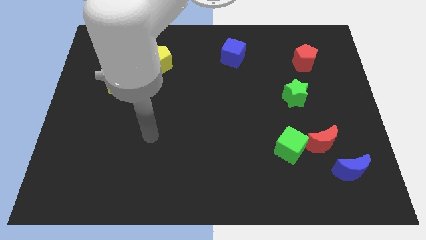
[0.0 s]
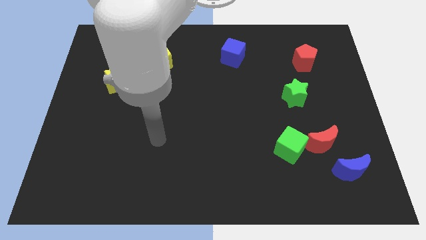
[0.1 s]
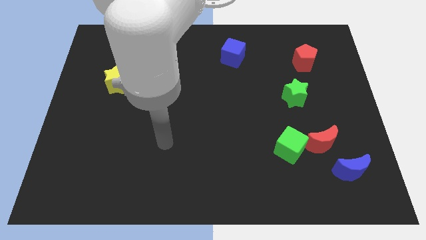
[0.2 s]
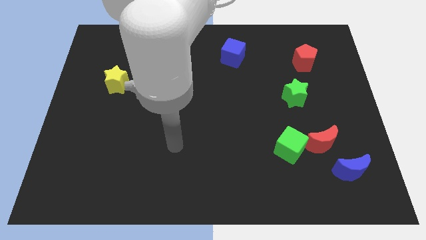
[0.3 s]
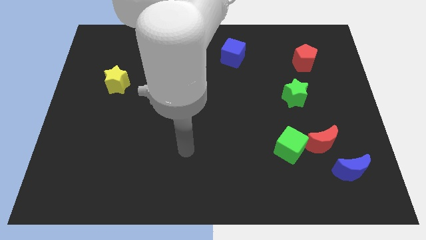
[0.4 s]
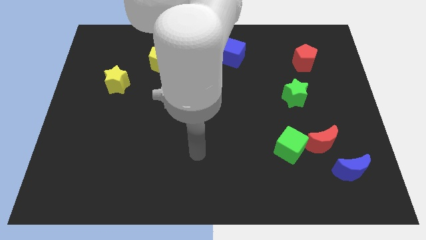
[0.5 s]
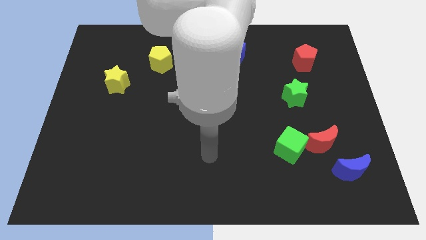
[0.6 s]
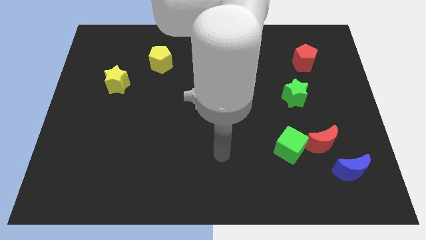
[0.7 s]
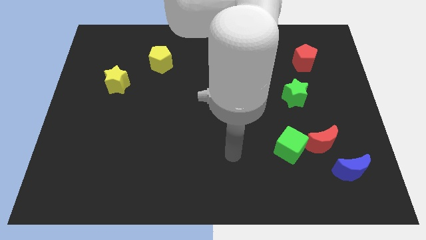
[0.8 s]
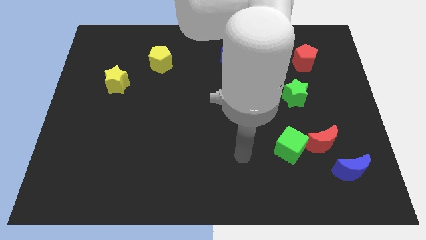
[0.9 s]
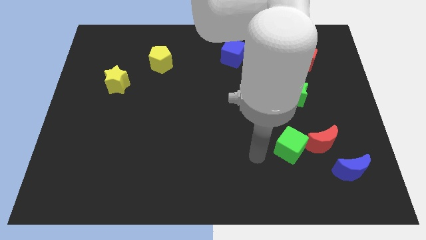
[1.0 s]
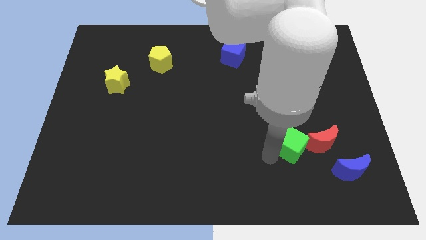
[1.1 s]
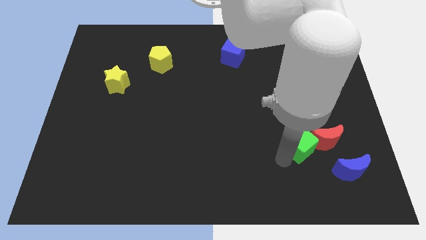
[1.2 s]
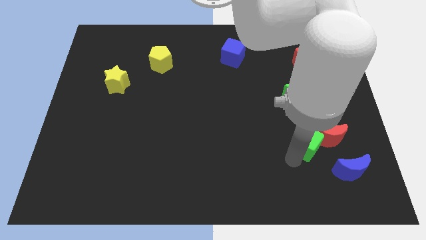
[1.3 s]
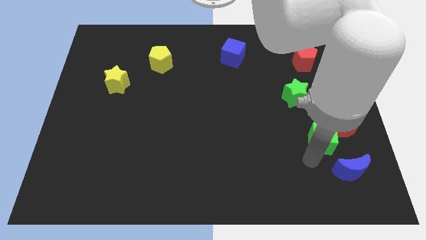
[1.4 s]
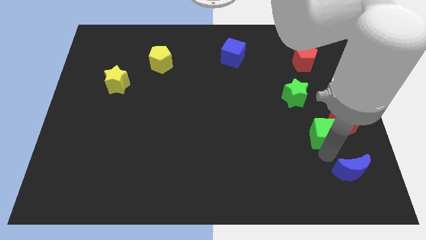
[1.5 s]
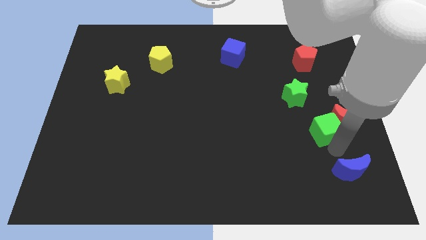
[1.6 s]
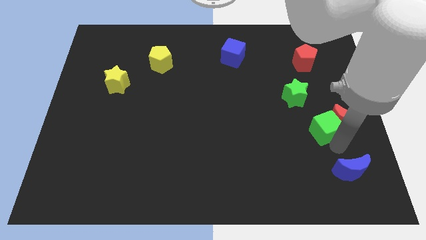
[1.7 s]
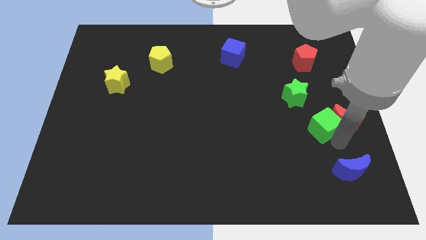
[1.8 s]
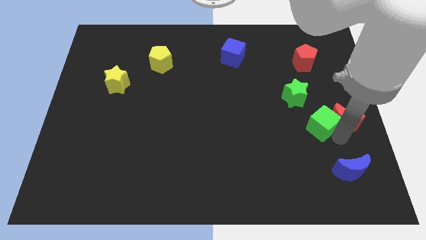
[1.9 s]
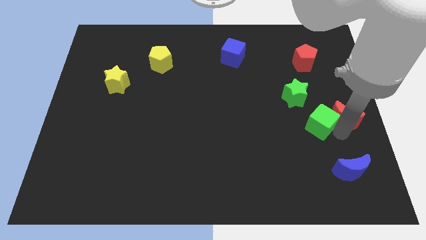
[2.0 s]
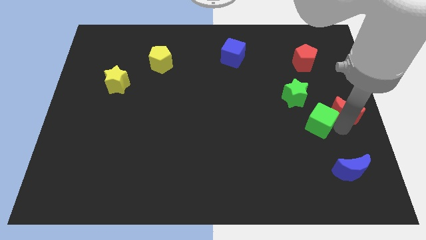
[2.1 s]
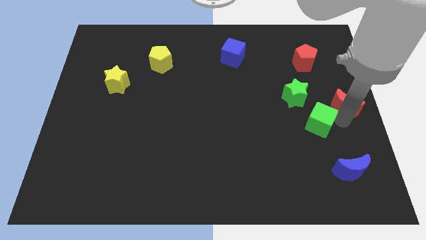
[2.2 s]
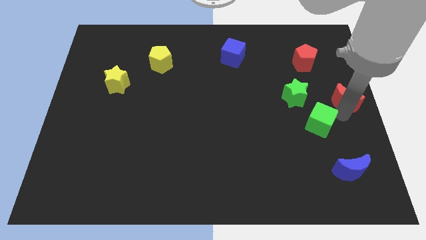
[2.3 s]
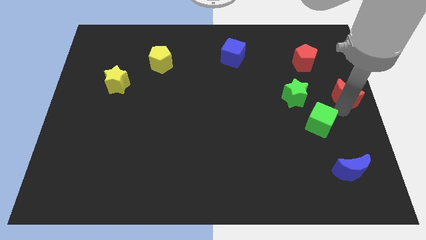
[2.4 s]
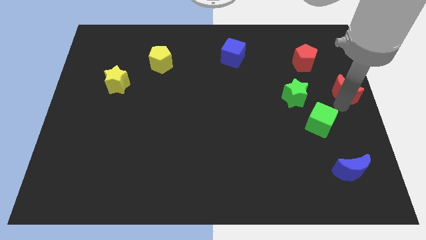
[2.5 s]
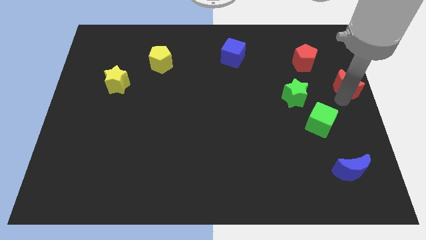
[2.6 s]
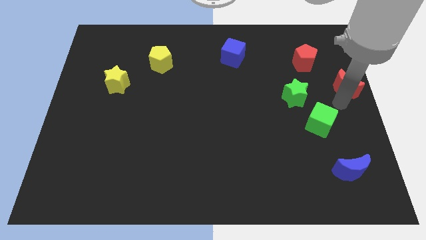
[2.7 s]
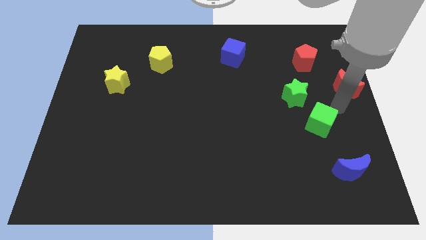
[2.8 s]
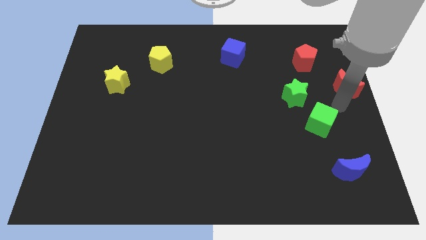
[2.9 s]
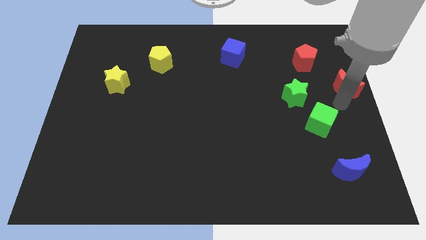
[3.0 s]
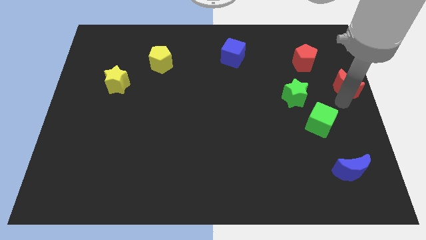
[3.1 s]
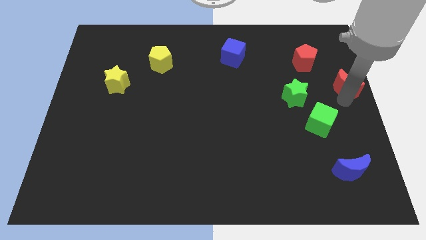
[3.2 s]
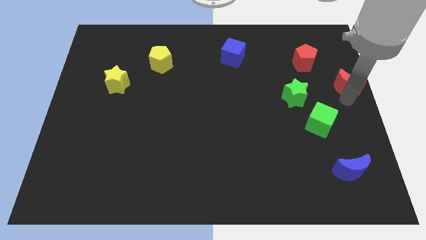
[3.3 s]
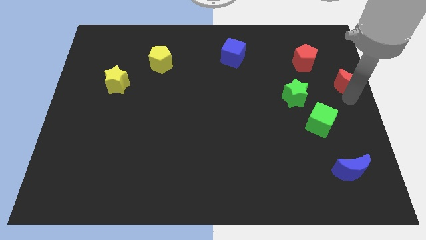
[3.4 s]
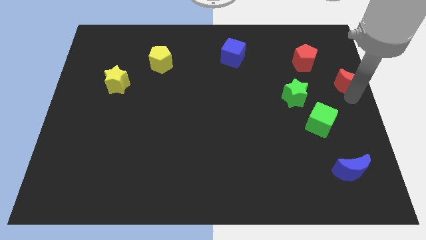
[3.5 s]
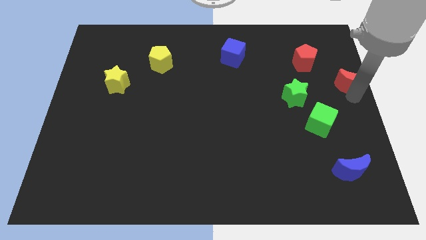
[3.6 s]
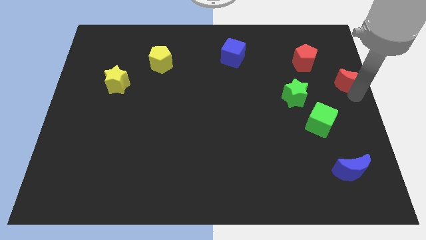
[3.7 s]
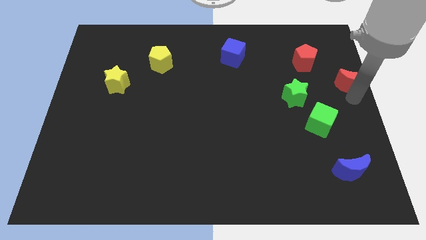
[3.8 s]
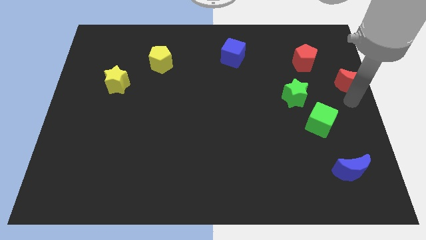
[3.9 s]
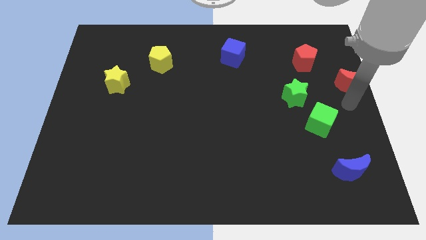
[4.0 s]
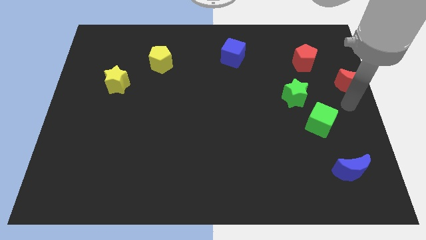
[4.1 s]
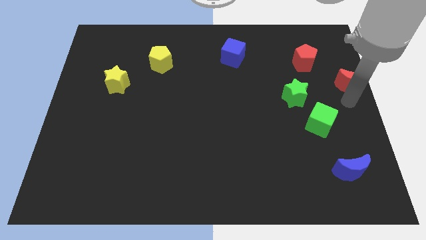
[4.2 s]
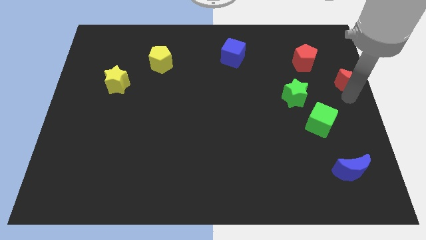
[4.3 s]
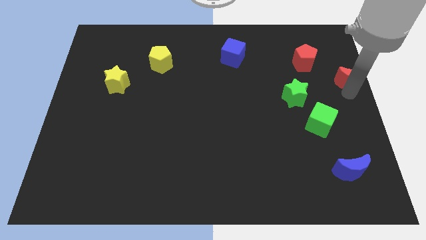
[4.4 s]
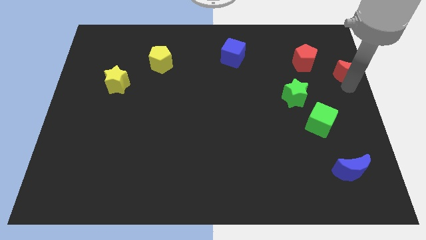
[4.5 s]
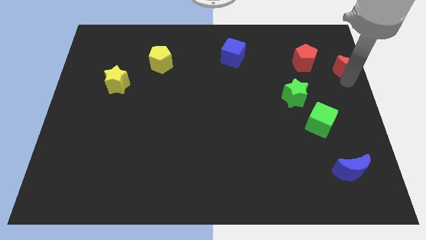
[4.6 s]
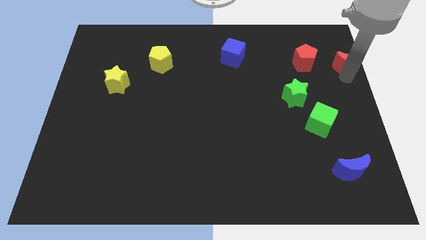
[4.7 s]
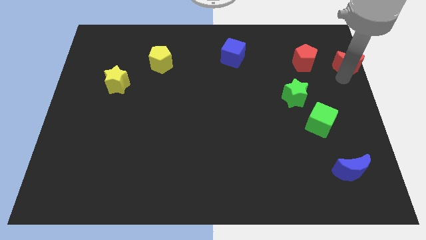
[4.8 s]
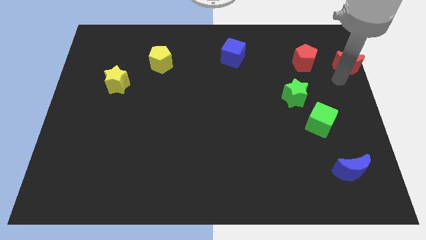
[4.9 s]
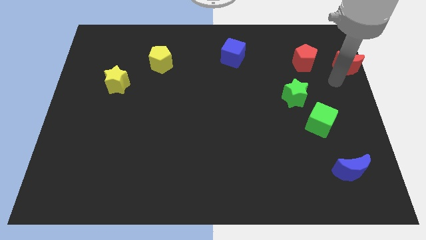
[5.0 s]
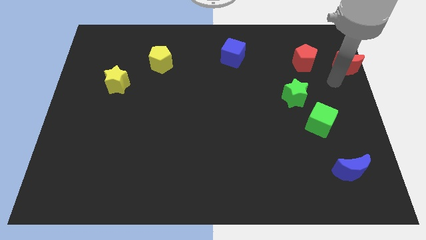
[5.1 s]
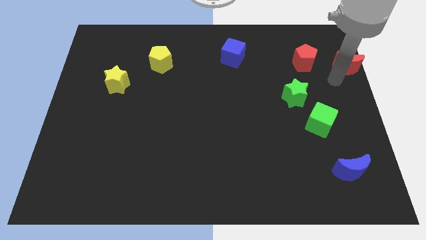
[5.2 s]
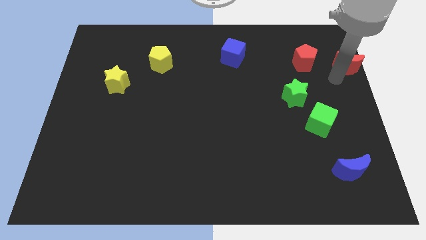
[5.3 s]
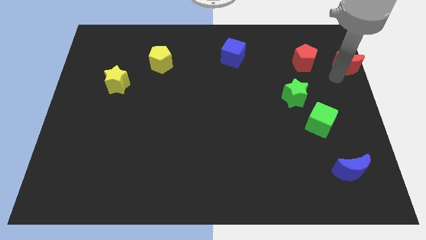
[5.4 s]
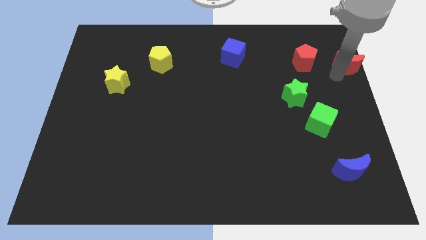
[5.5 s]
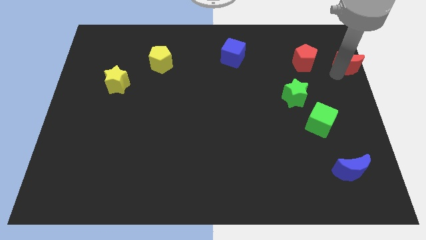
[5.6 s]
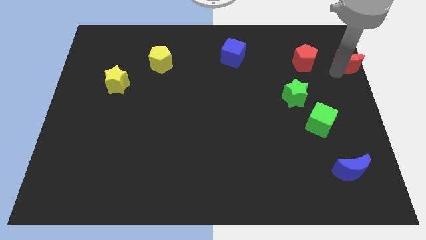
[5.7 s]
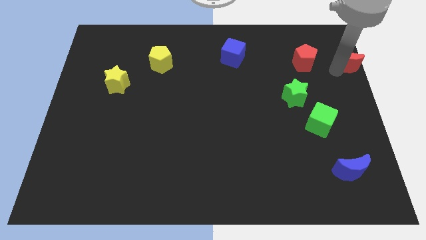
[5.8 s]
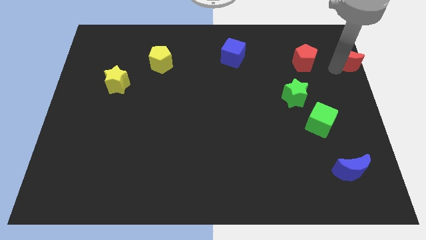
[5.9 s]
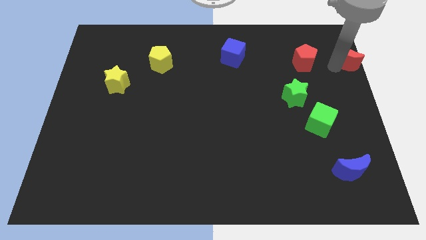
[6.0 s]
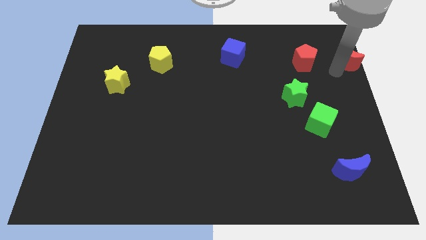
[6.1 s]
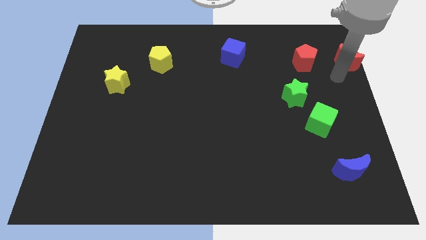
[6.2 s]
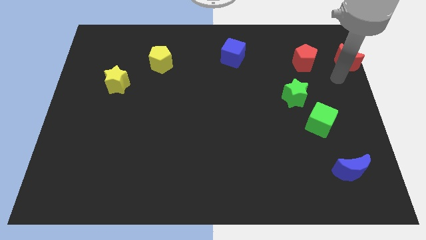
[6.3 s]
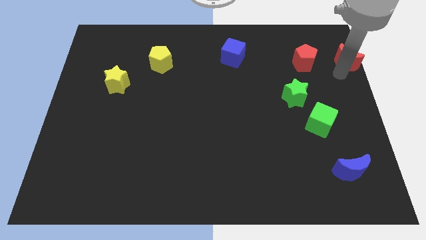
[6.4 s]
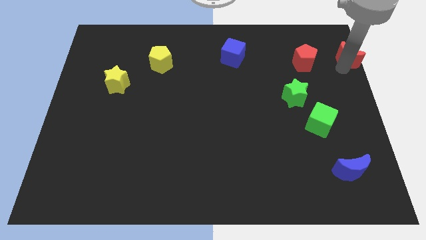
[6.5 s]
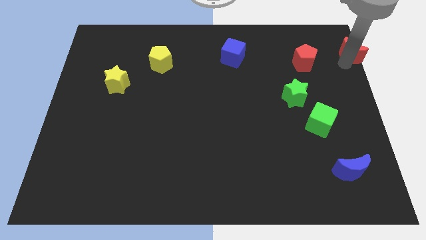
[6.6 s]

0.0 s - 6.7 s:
slide the red moon to the upper right corner

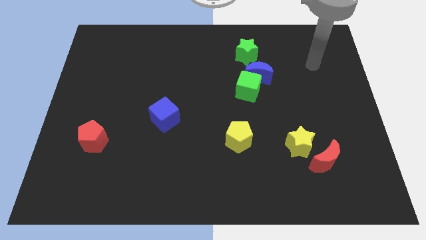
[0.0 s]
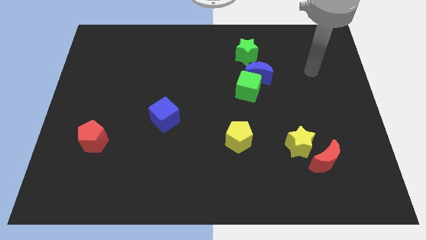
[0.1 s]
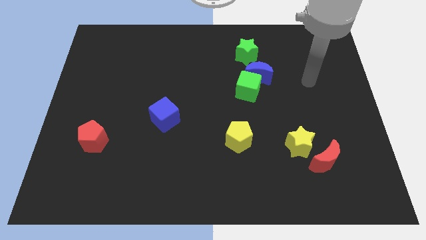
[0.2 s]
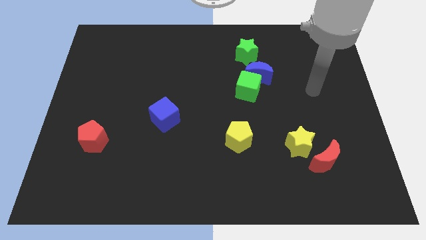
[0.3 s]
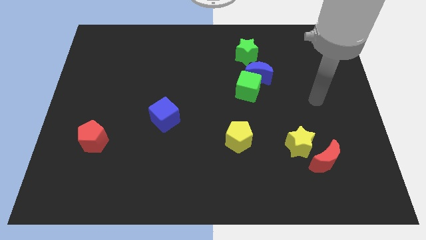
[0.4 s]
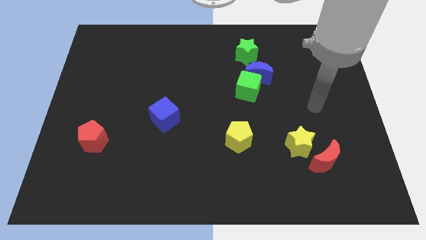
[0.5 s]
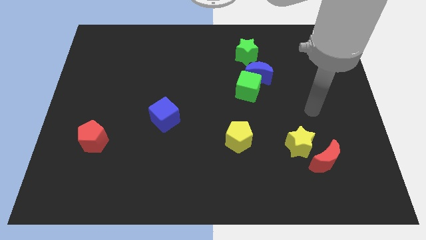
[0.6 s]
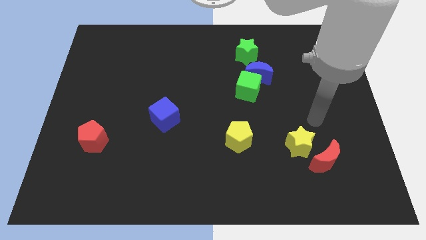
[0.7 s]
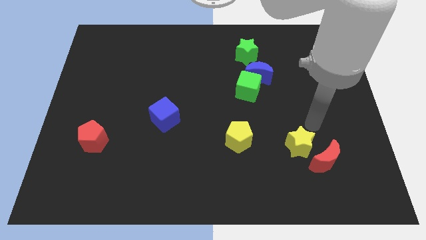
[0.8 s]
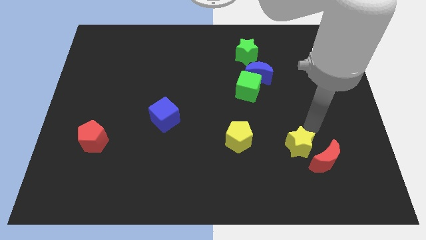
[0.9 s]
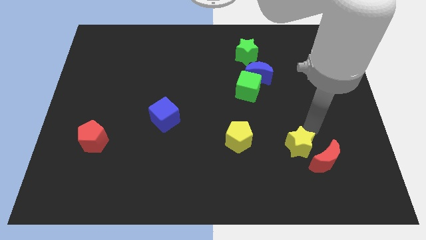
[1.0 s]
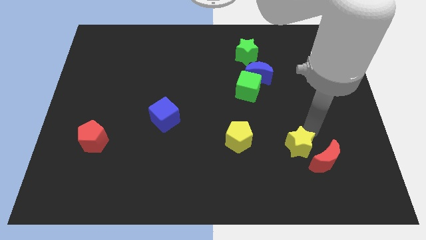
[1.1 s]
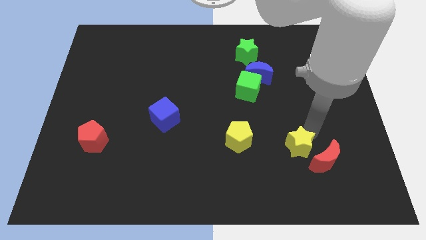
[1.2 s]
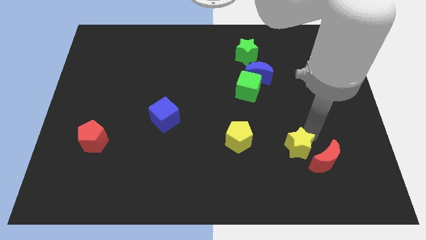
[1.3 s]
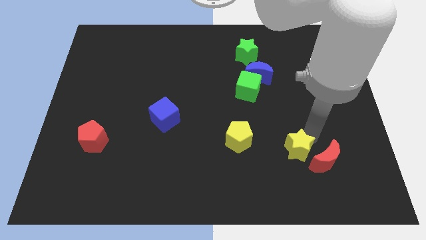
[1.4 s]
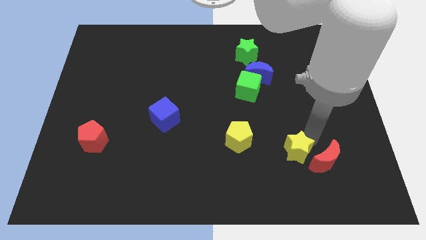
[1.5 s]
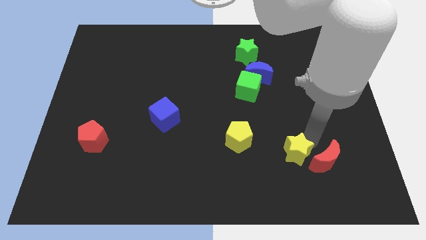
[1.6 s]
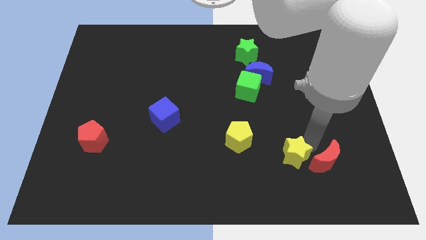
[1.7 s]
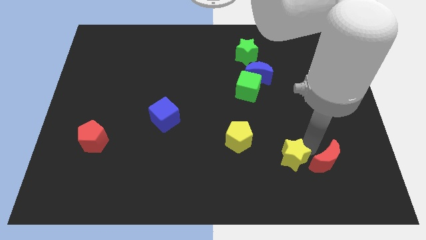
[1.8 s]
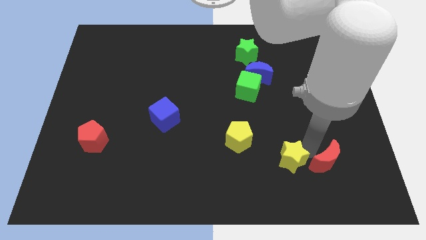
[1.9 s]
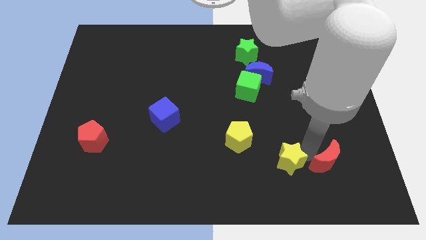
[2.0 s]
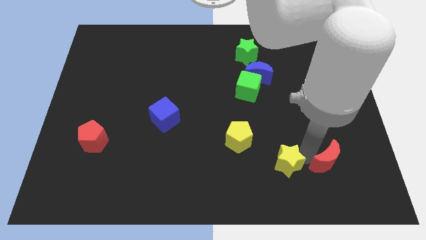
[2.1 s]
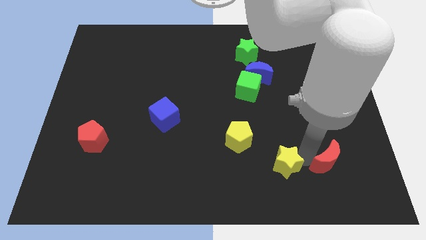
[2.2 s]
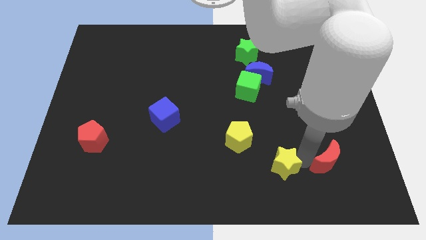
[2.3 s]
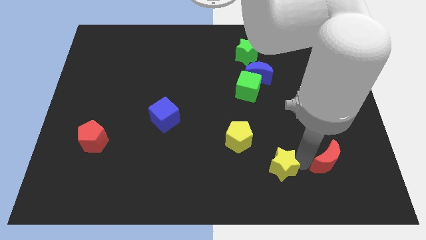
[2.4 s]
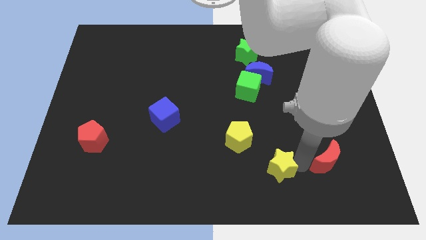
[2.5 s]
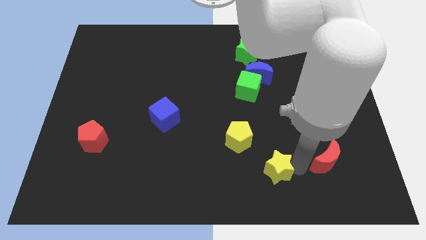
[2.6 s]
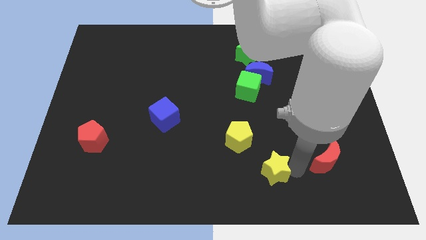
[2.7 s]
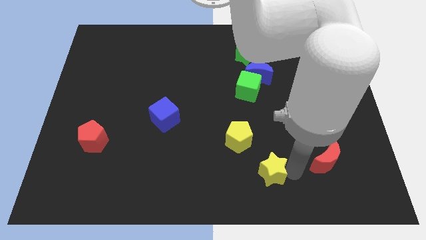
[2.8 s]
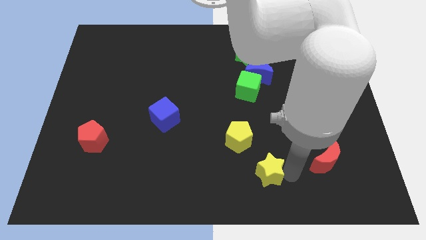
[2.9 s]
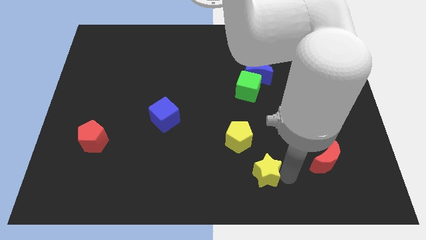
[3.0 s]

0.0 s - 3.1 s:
slide the yellow star to the bottom
